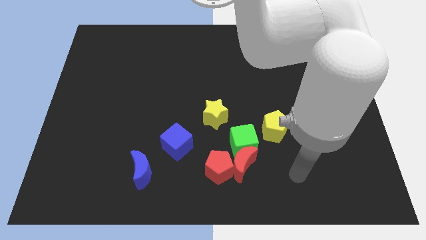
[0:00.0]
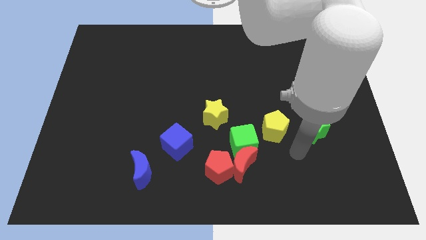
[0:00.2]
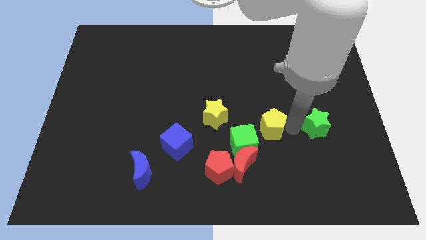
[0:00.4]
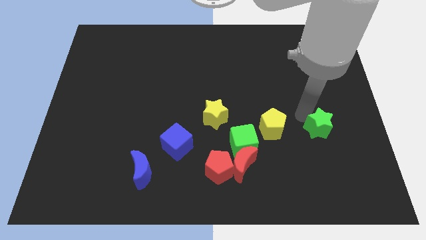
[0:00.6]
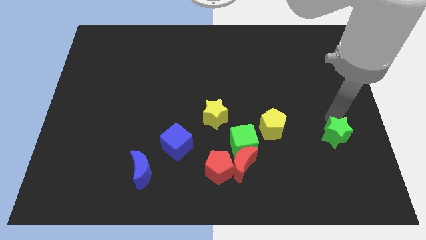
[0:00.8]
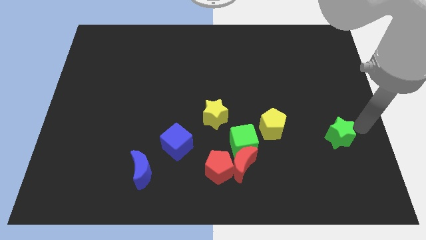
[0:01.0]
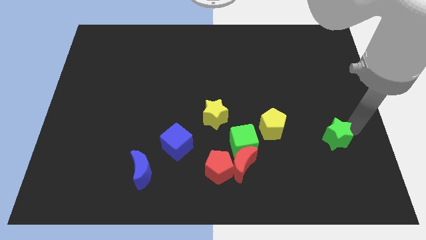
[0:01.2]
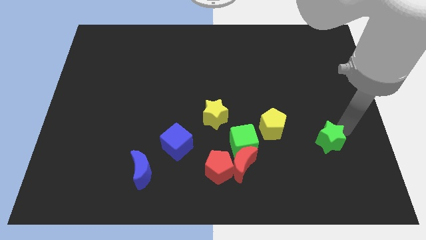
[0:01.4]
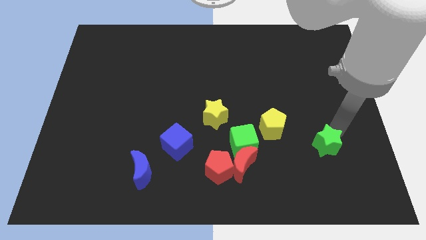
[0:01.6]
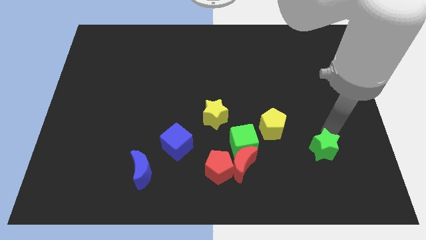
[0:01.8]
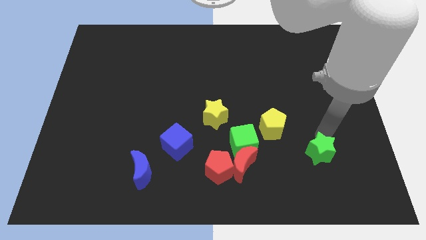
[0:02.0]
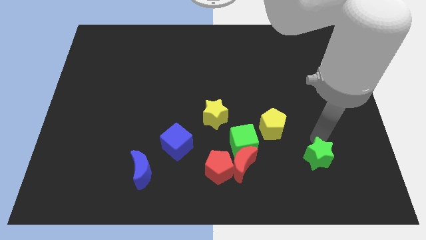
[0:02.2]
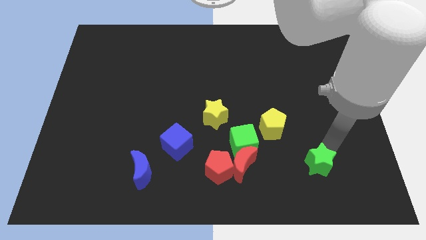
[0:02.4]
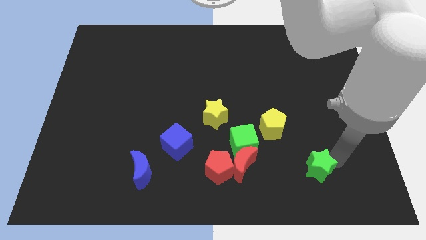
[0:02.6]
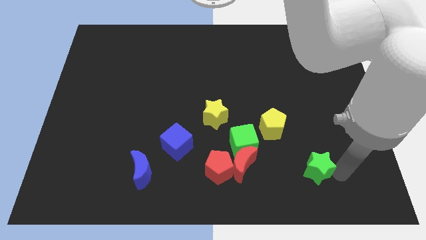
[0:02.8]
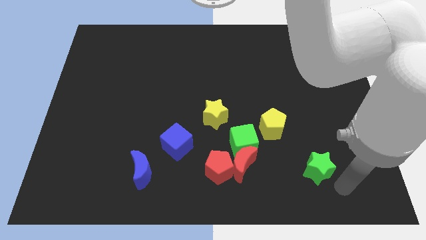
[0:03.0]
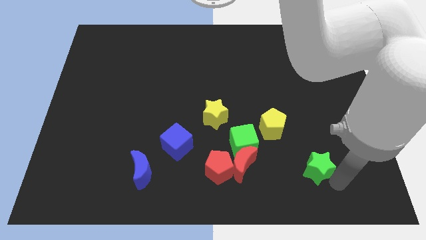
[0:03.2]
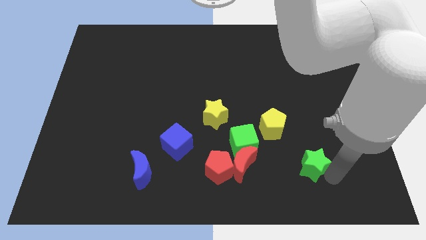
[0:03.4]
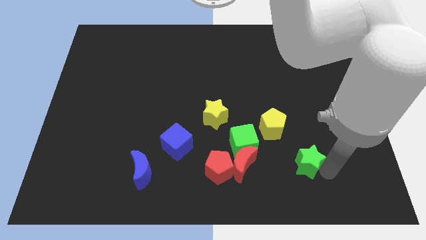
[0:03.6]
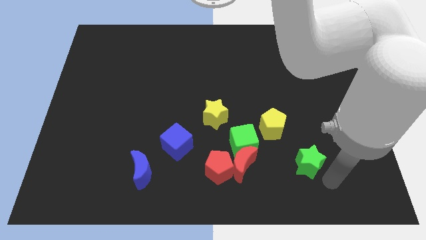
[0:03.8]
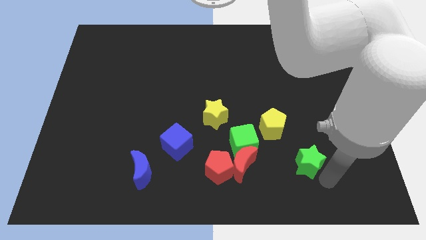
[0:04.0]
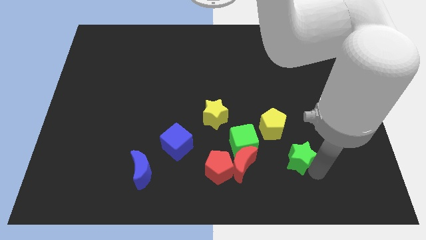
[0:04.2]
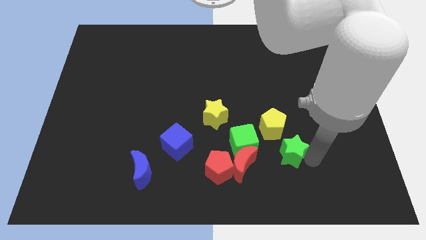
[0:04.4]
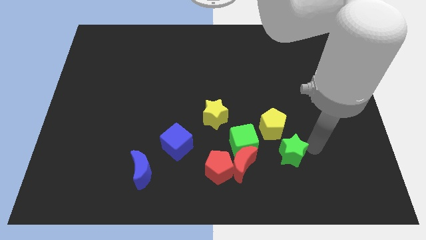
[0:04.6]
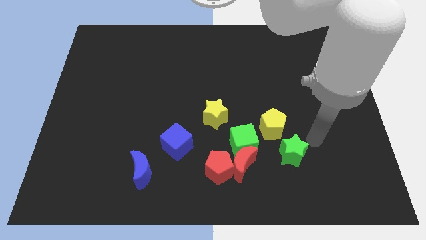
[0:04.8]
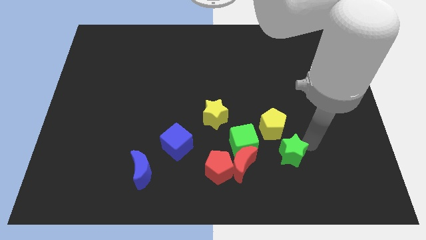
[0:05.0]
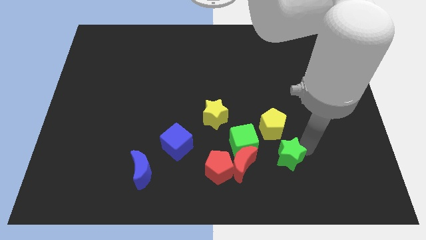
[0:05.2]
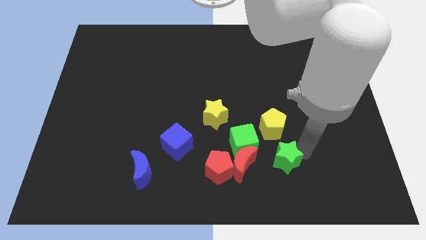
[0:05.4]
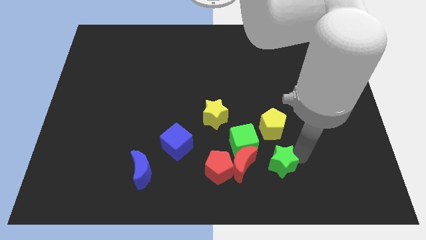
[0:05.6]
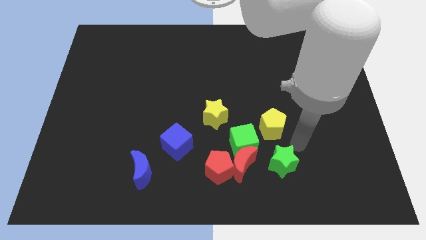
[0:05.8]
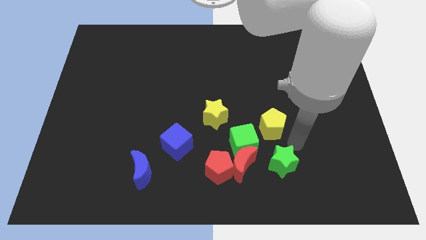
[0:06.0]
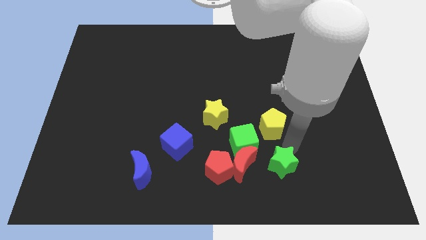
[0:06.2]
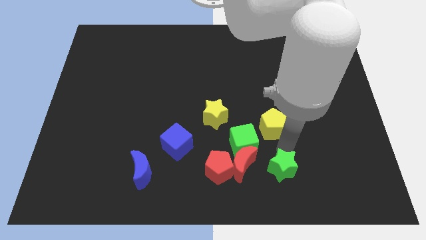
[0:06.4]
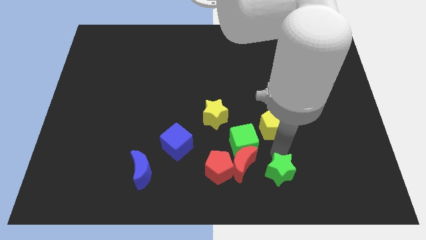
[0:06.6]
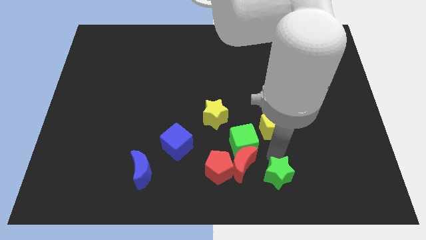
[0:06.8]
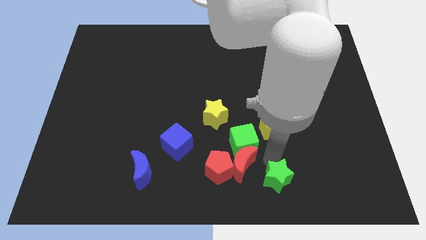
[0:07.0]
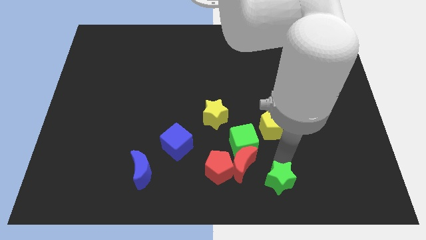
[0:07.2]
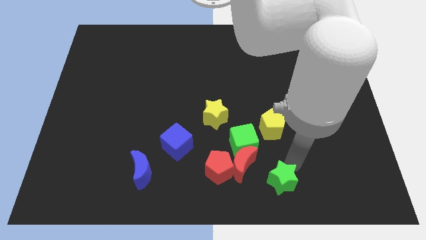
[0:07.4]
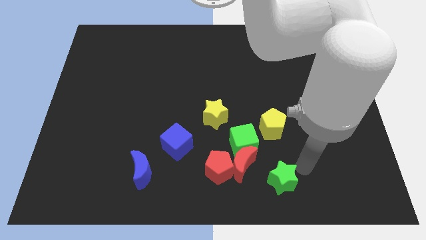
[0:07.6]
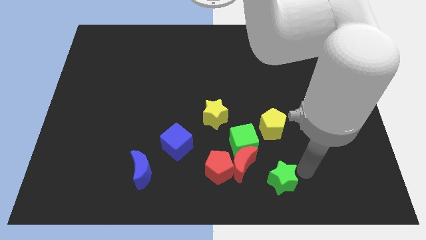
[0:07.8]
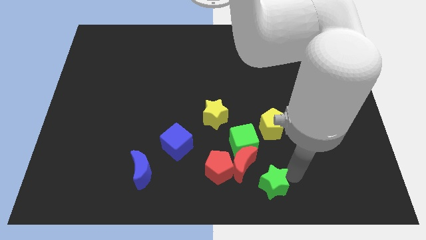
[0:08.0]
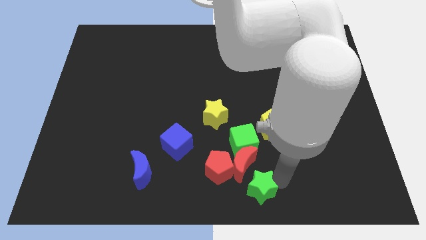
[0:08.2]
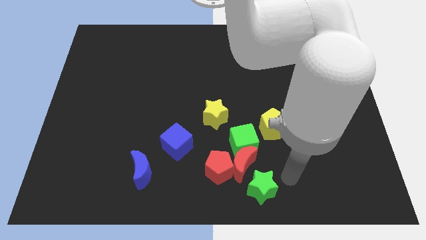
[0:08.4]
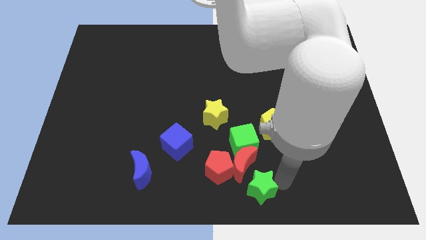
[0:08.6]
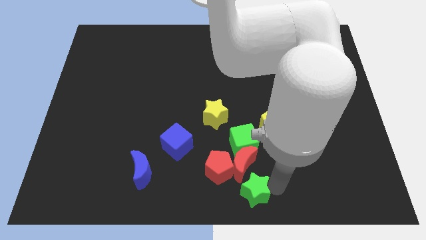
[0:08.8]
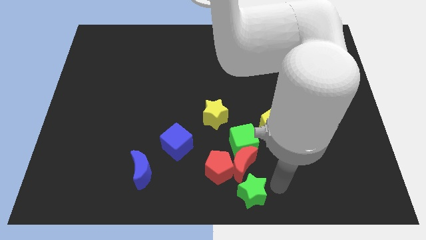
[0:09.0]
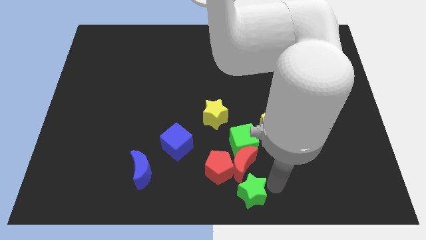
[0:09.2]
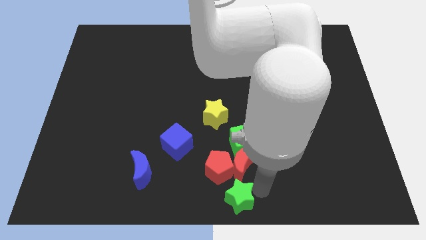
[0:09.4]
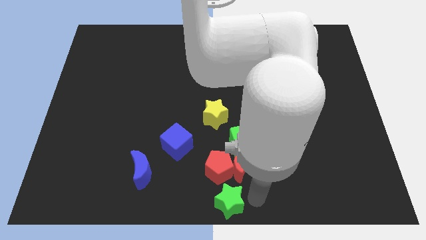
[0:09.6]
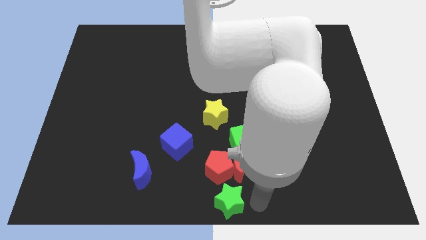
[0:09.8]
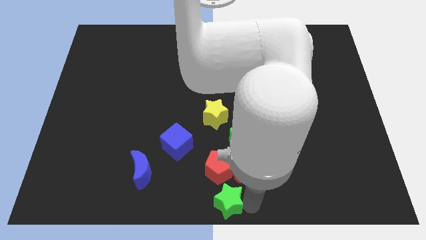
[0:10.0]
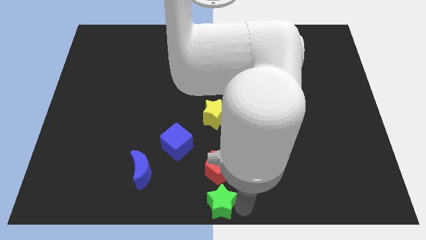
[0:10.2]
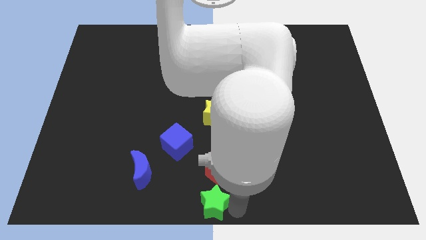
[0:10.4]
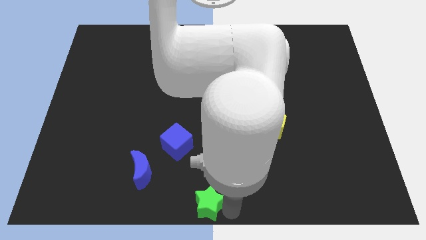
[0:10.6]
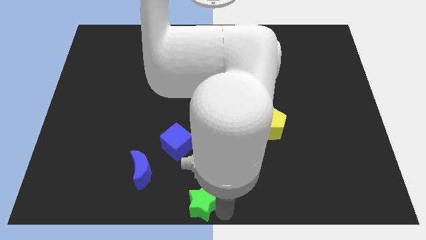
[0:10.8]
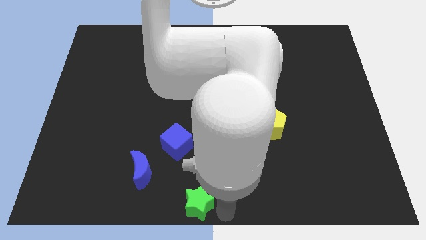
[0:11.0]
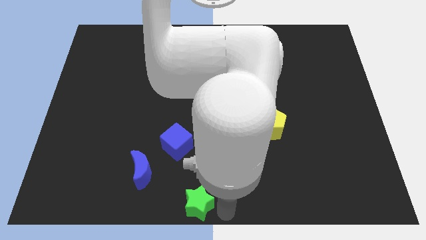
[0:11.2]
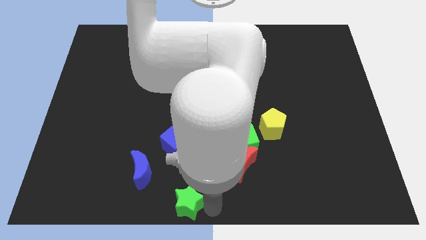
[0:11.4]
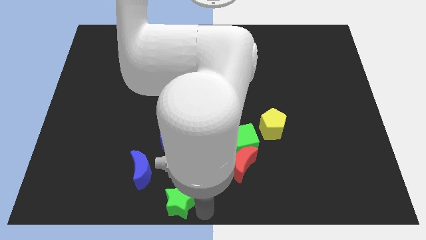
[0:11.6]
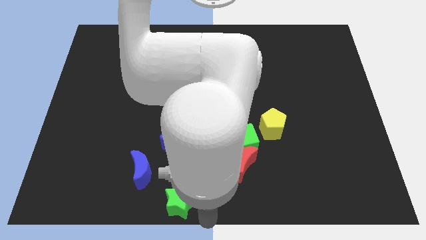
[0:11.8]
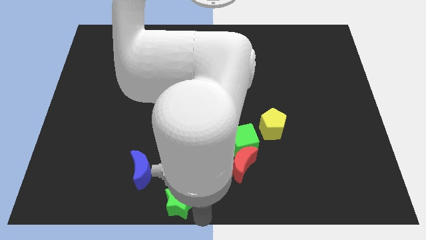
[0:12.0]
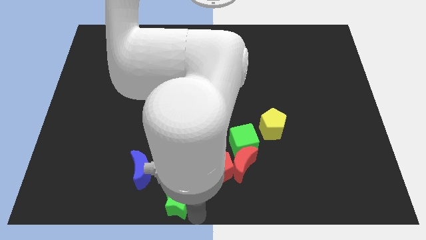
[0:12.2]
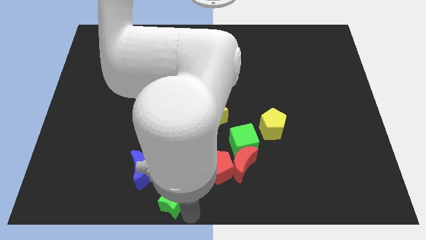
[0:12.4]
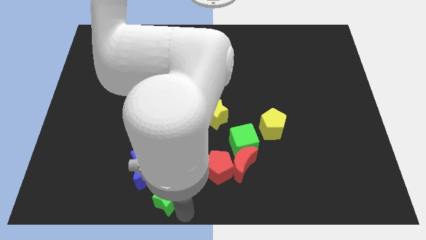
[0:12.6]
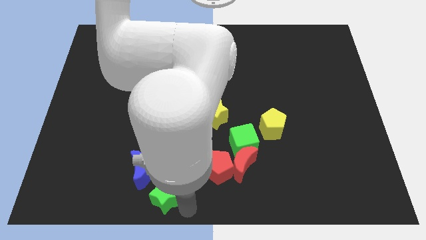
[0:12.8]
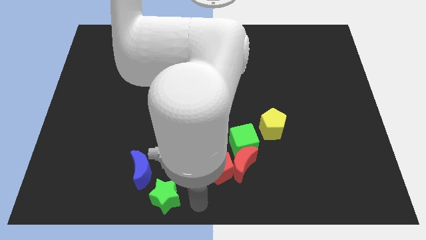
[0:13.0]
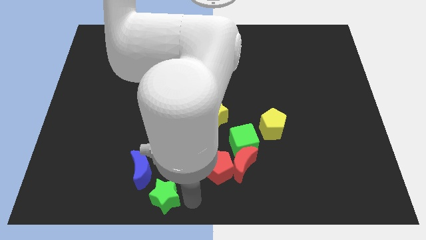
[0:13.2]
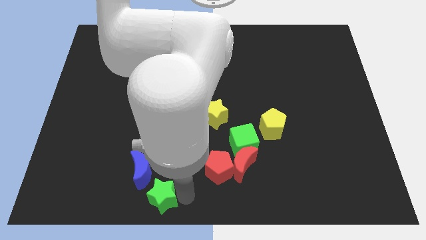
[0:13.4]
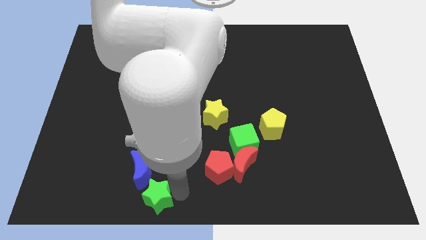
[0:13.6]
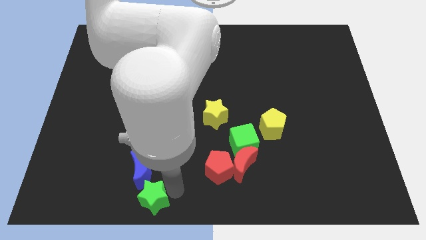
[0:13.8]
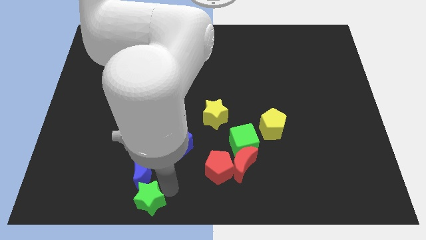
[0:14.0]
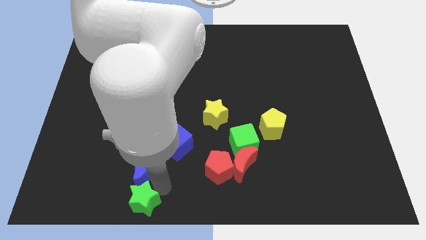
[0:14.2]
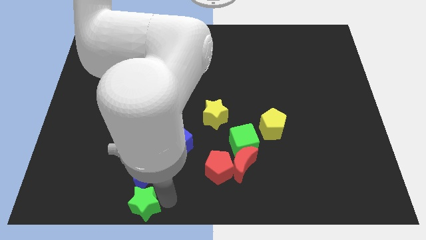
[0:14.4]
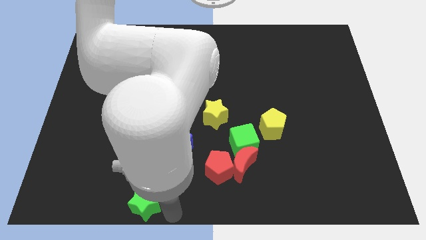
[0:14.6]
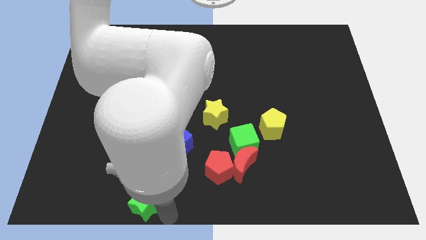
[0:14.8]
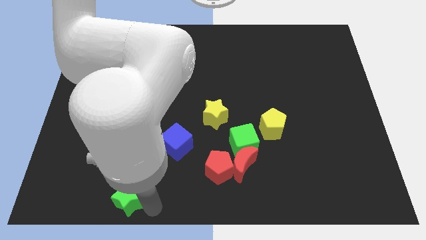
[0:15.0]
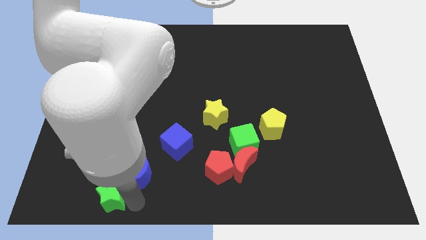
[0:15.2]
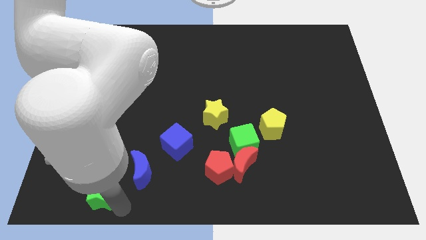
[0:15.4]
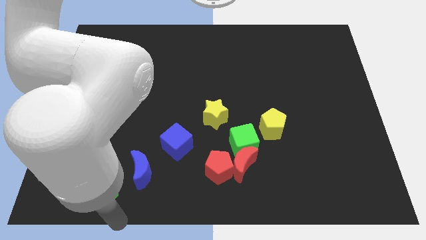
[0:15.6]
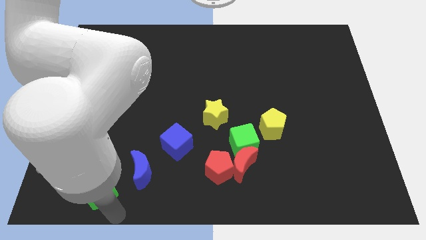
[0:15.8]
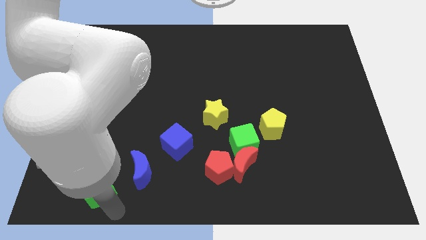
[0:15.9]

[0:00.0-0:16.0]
move the green star left of the blue moon
